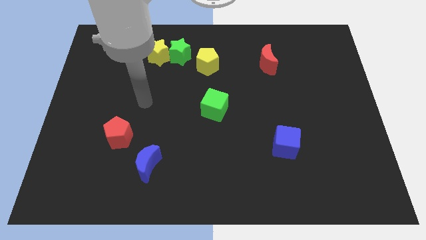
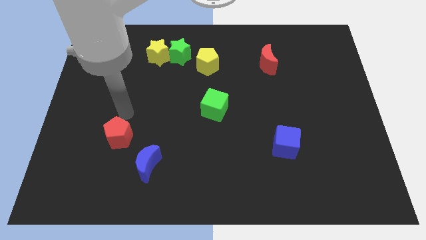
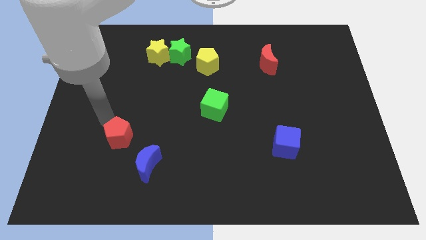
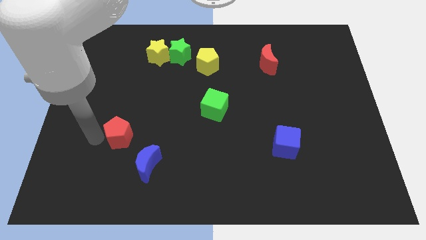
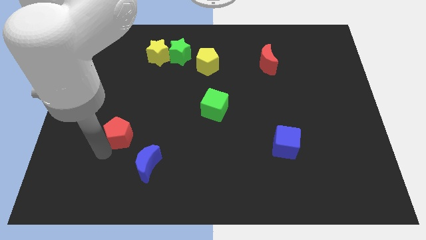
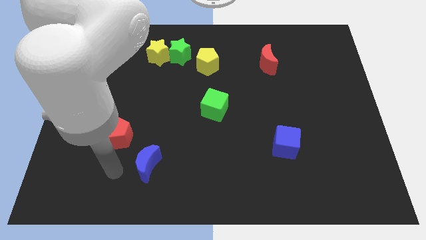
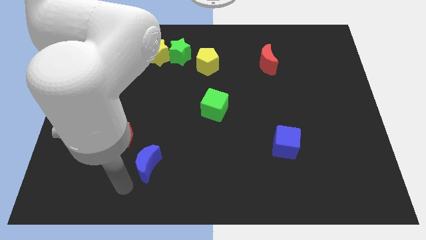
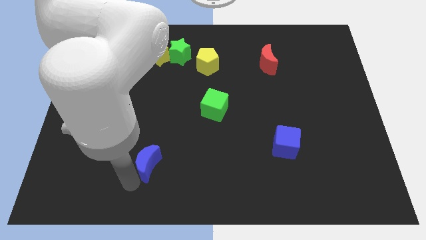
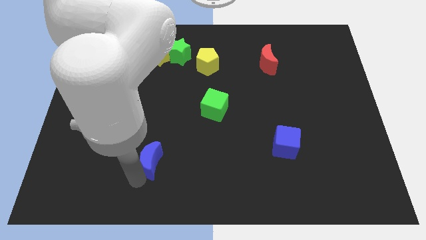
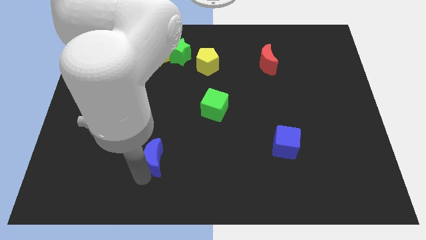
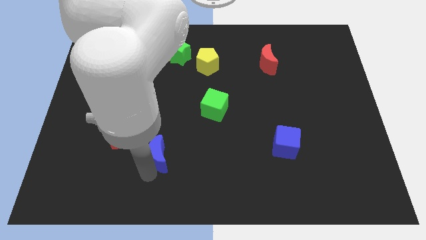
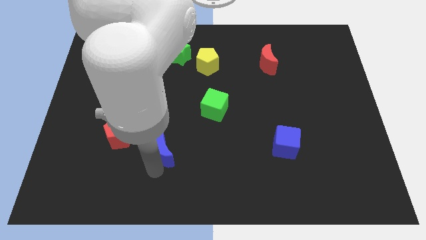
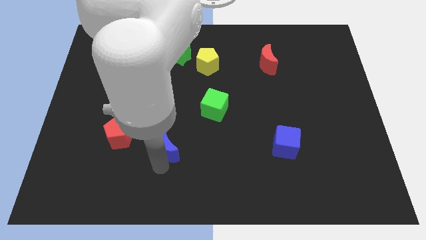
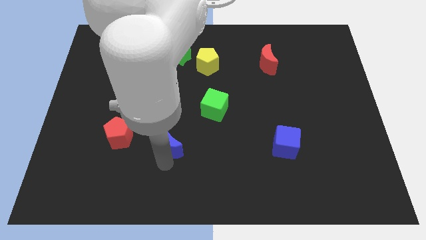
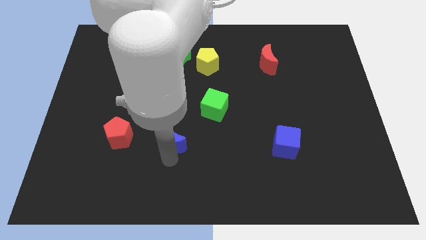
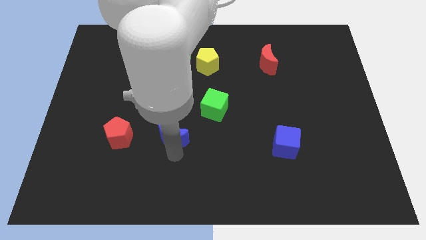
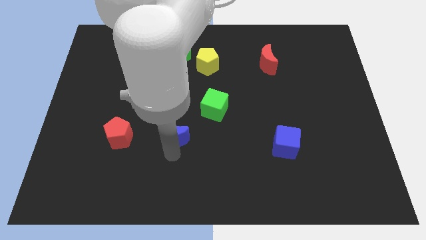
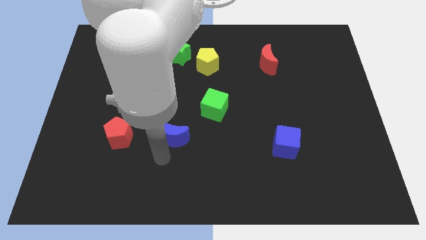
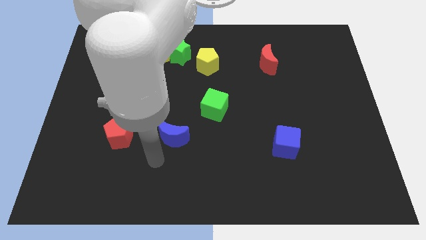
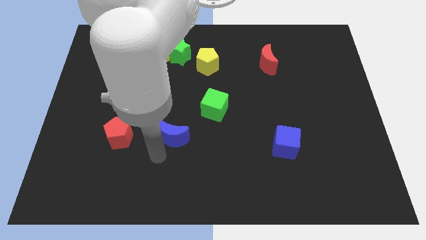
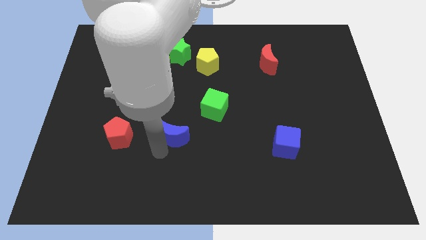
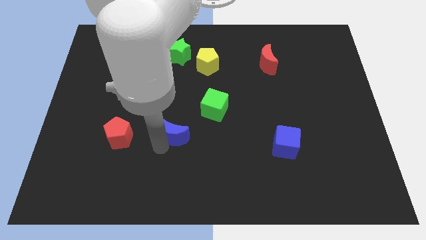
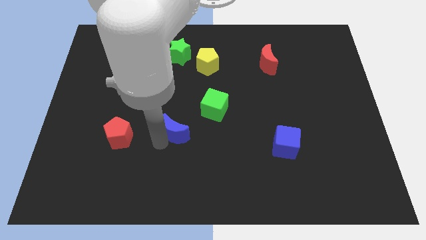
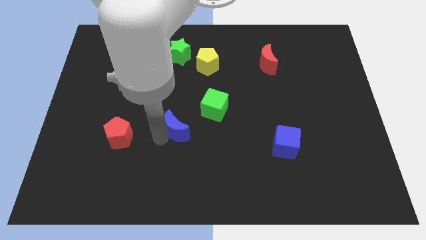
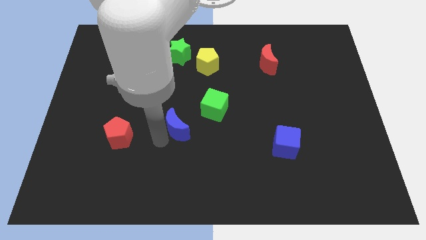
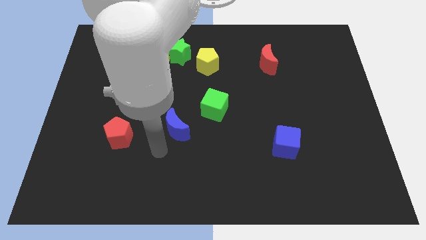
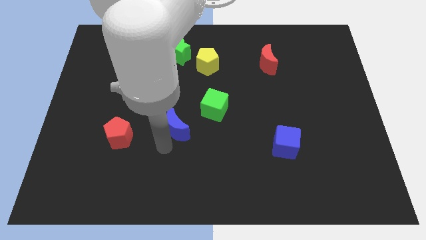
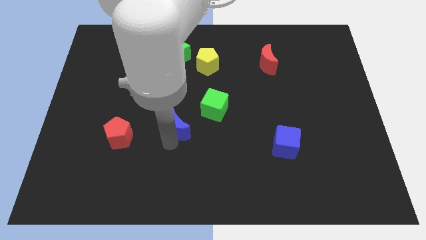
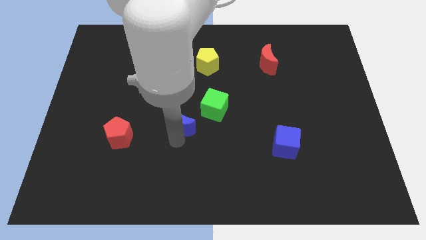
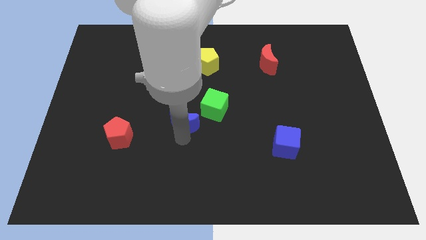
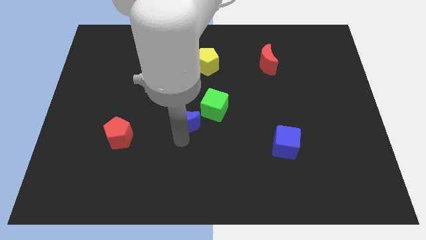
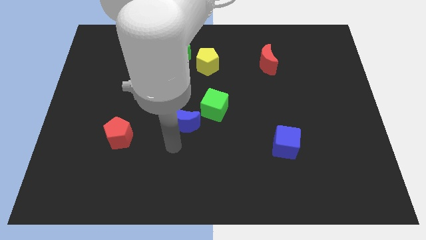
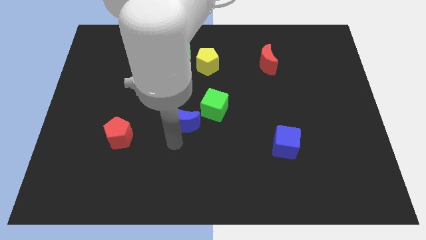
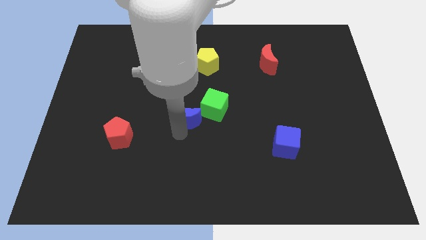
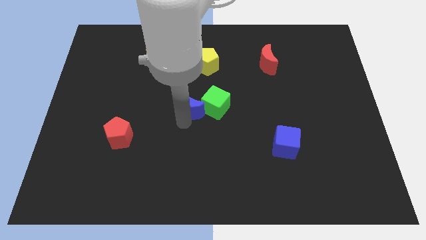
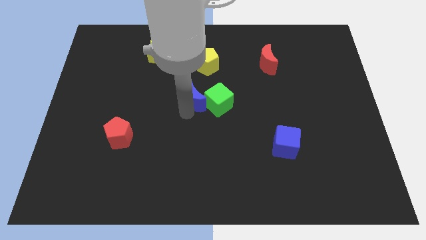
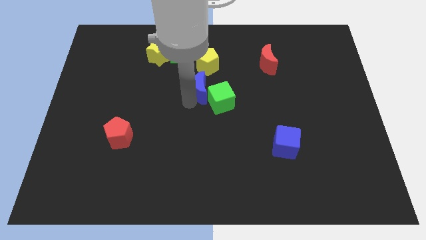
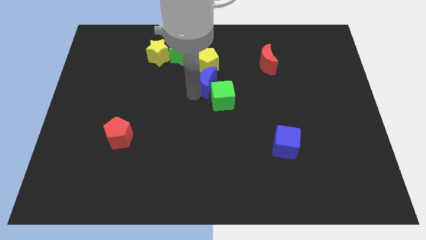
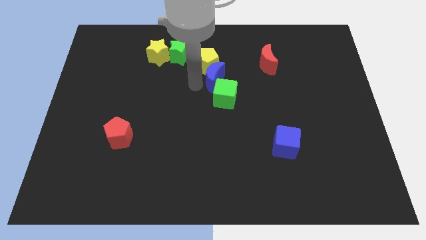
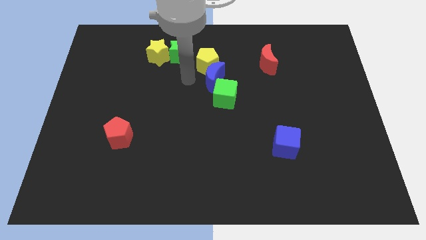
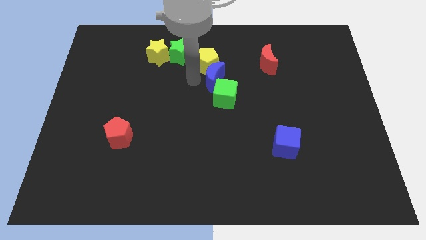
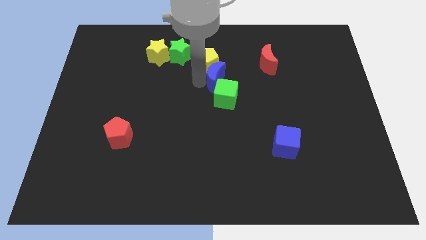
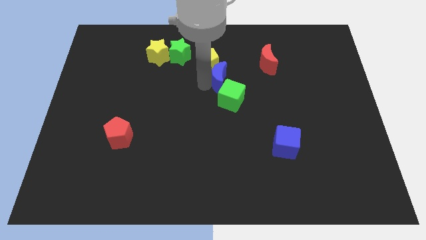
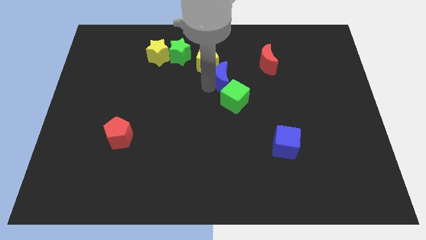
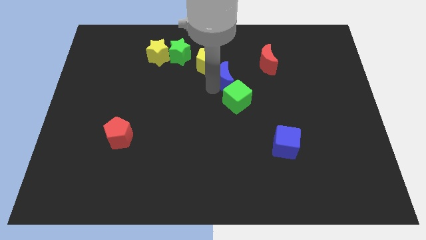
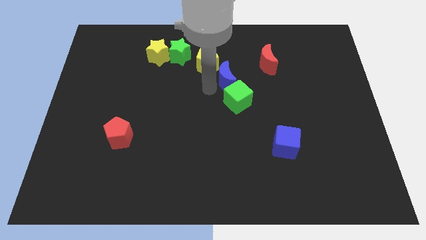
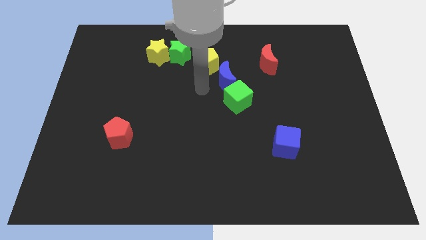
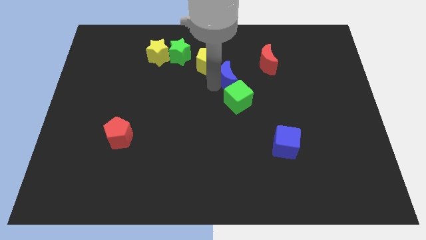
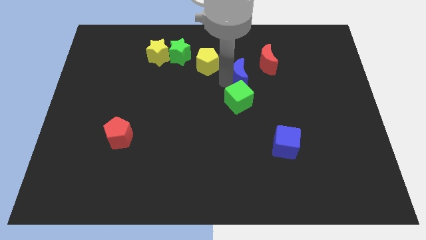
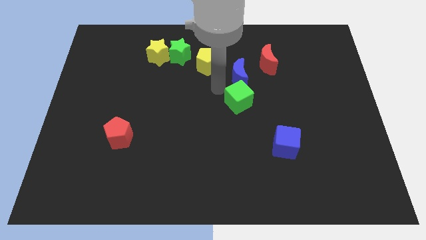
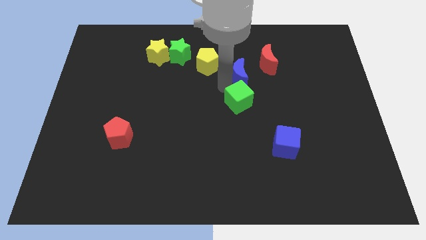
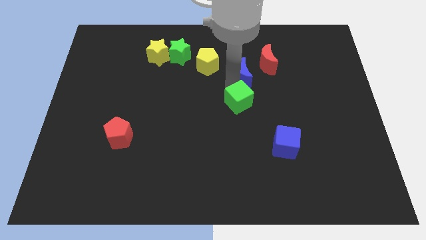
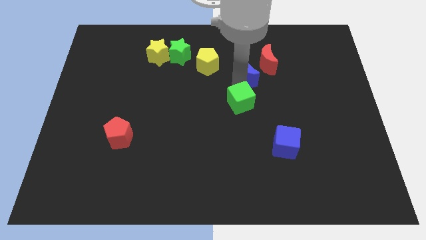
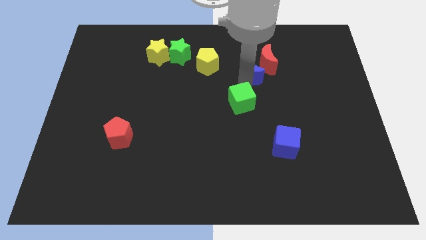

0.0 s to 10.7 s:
put the blue moon to the red moon

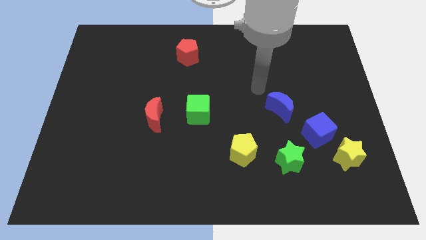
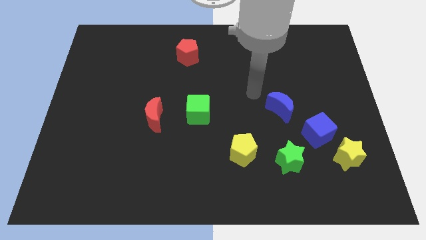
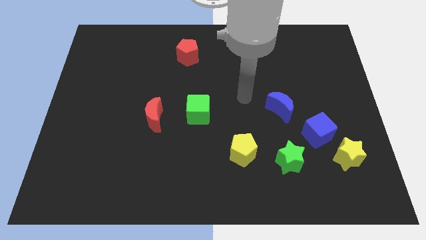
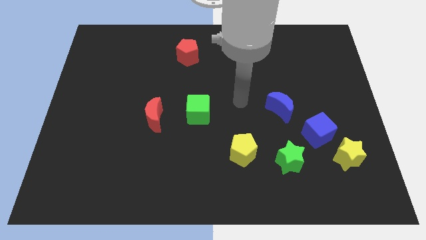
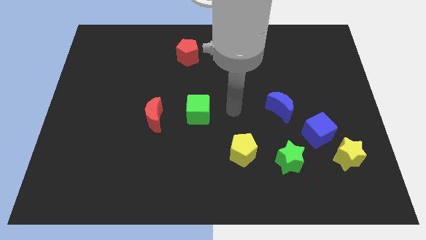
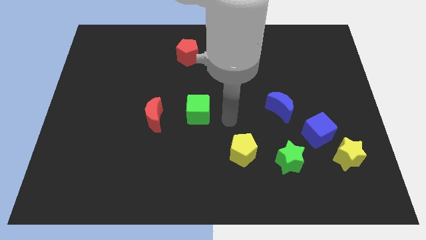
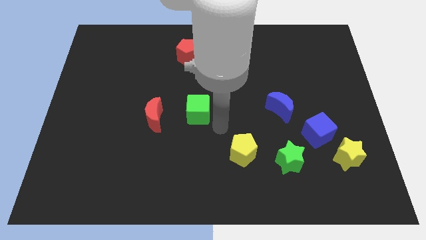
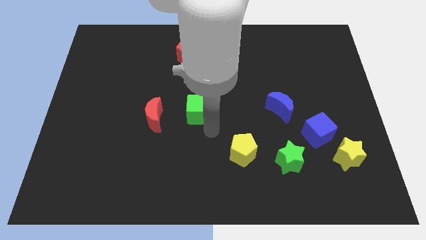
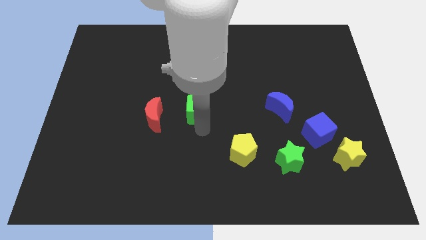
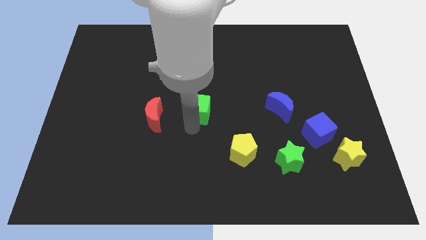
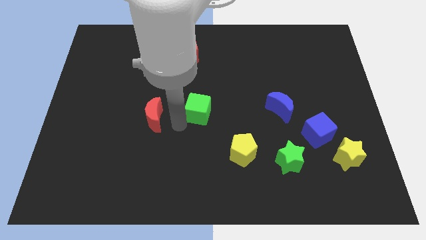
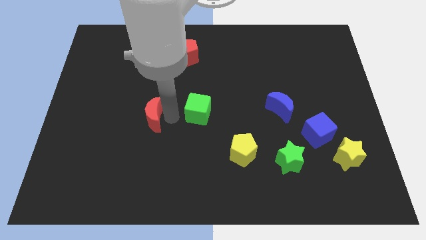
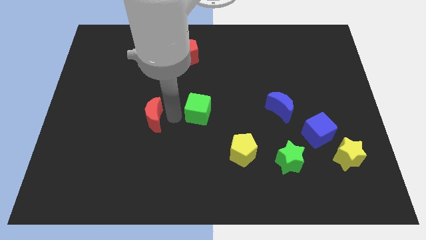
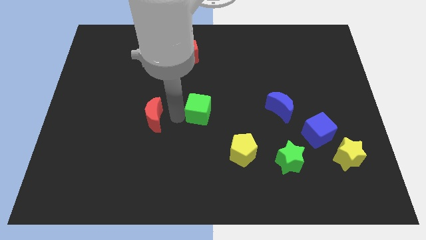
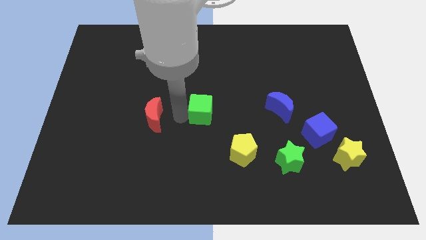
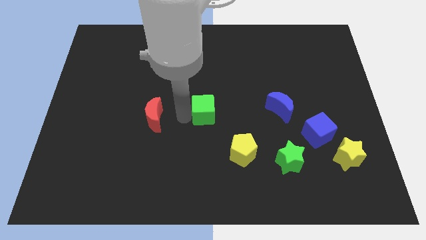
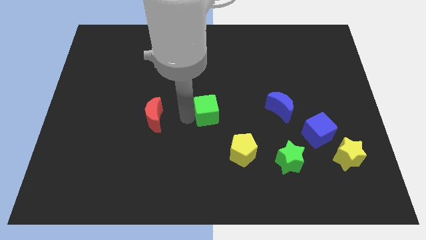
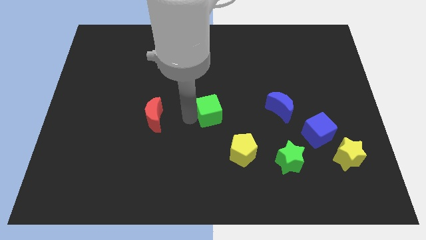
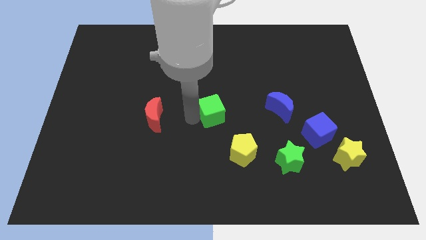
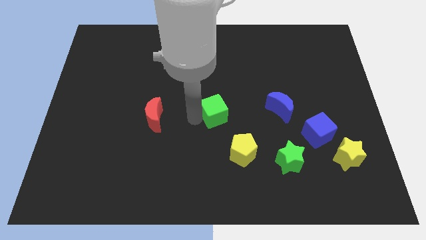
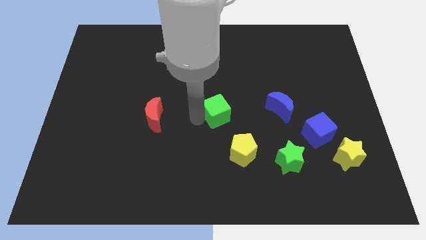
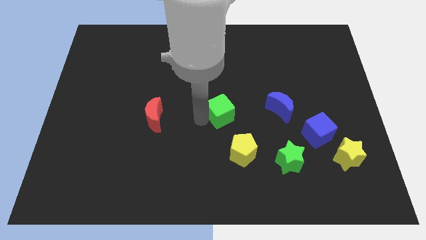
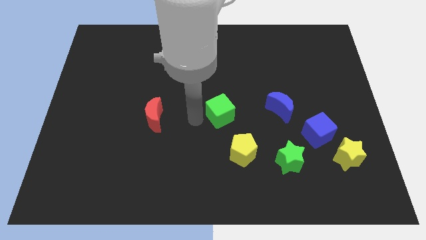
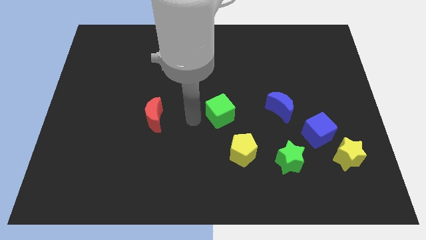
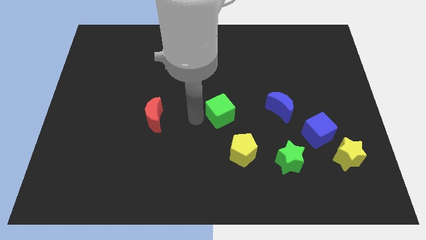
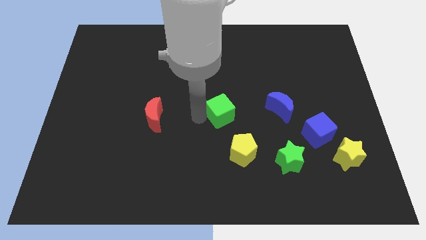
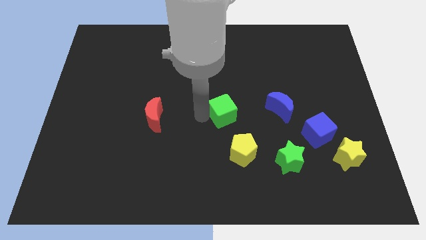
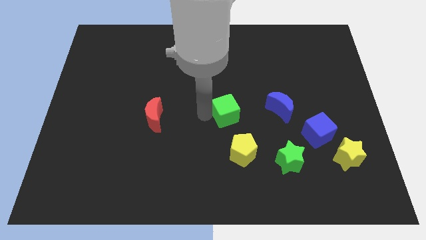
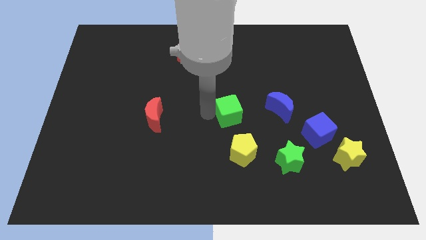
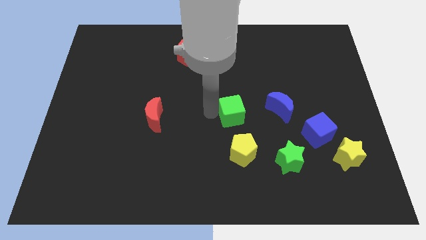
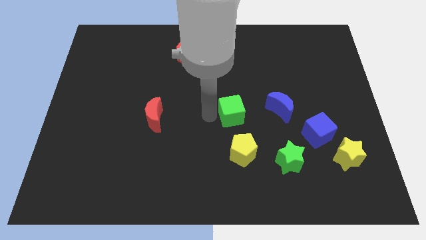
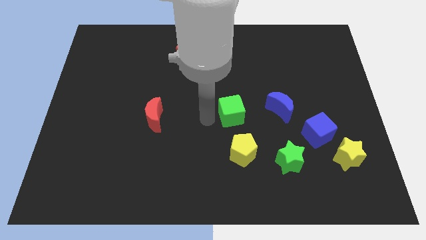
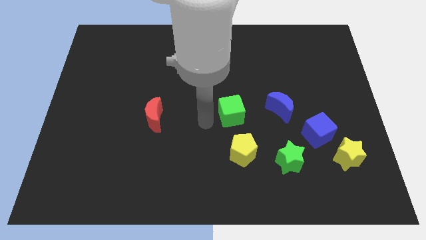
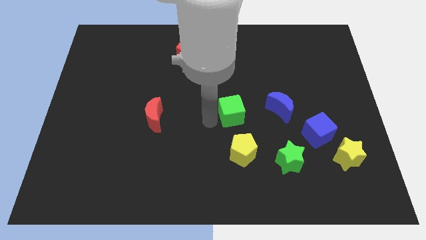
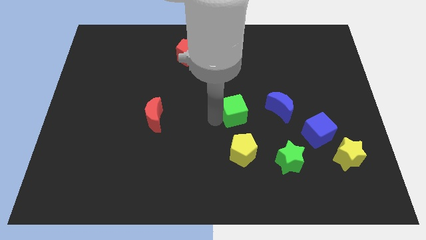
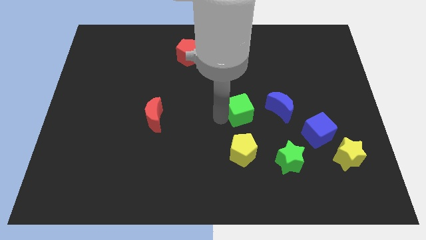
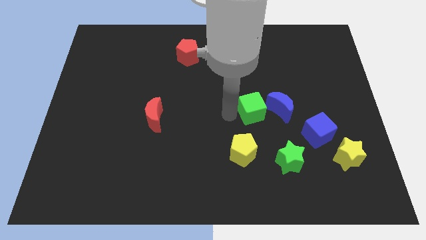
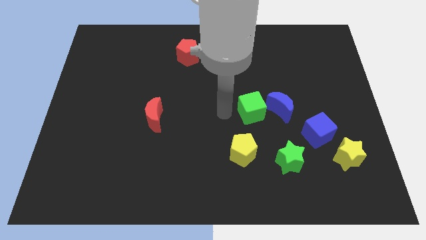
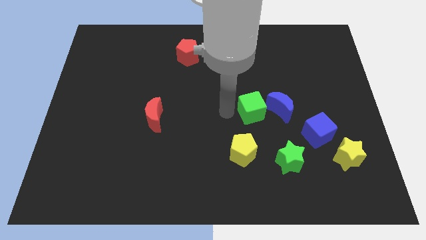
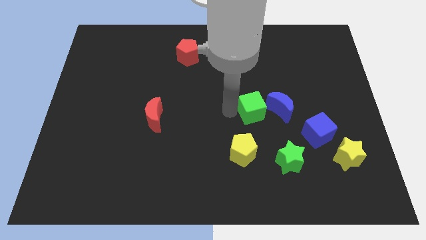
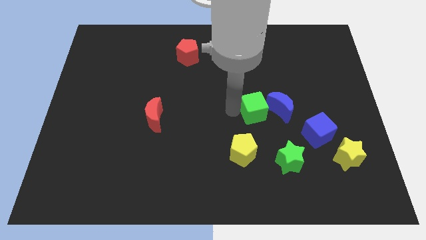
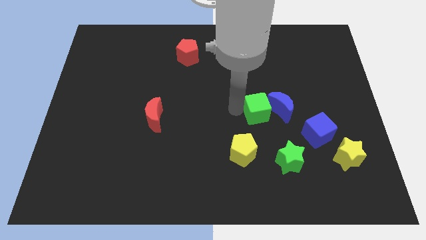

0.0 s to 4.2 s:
move the green cube to the blue moon
